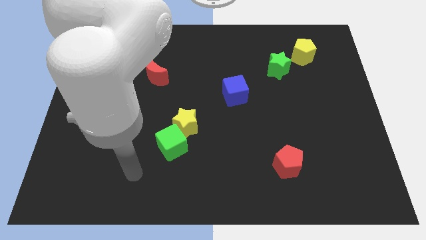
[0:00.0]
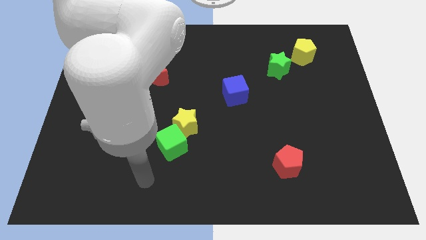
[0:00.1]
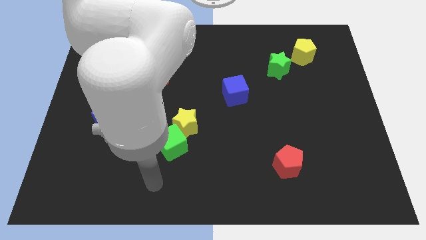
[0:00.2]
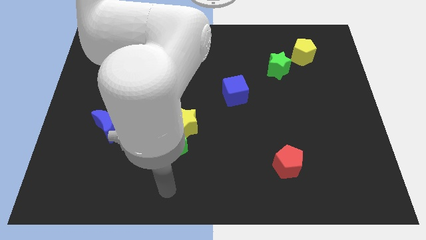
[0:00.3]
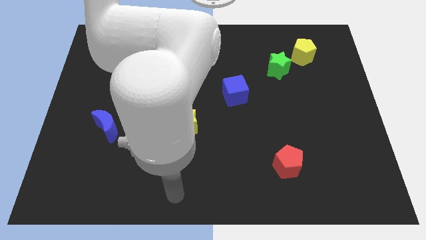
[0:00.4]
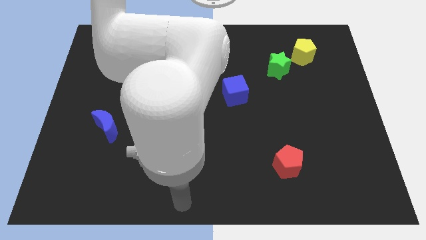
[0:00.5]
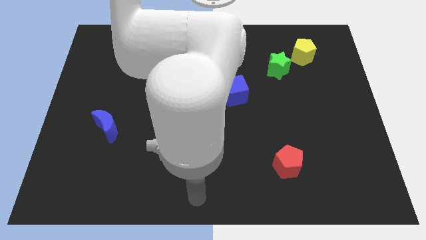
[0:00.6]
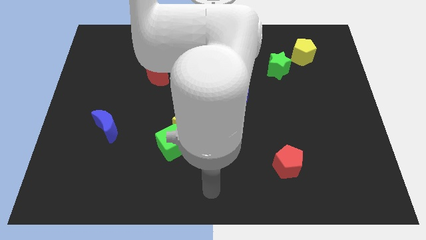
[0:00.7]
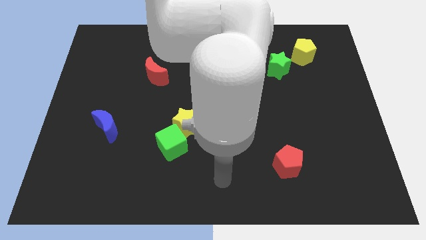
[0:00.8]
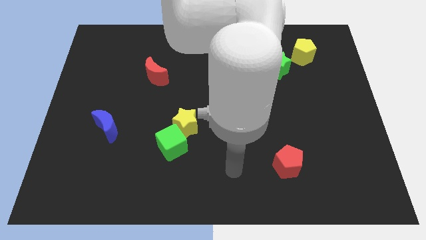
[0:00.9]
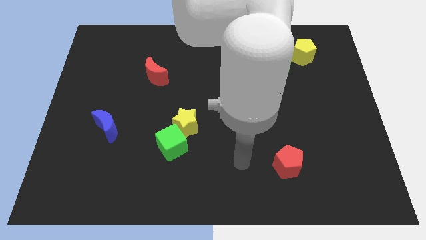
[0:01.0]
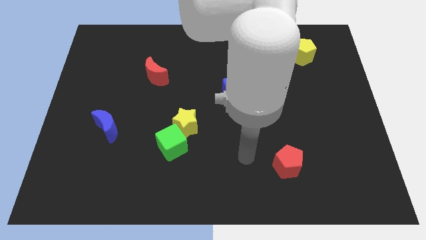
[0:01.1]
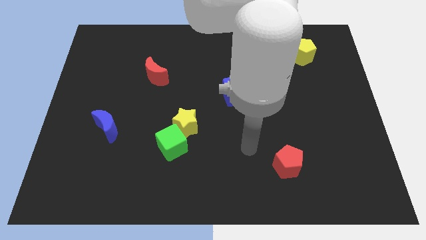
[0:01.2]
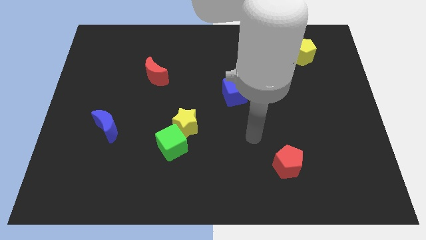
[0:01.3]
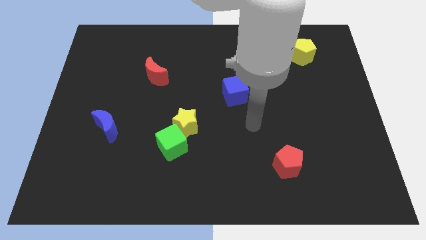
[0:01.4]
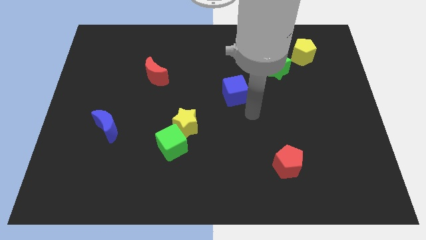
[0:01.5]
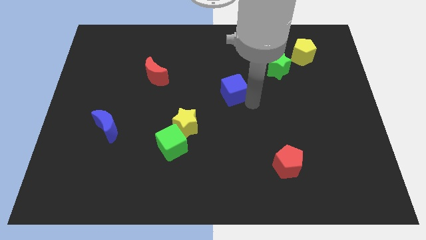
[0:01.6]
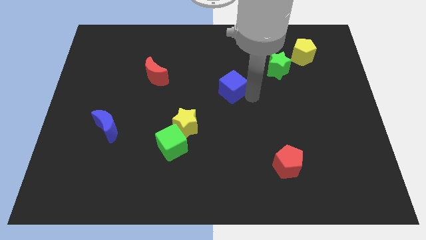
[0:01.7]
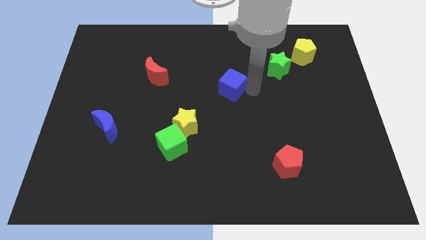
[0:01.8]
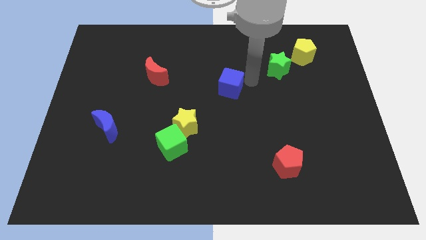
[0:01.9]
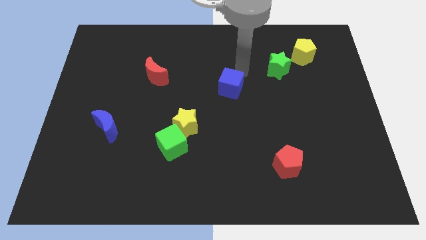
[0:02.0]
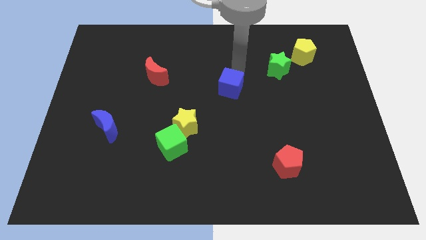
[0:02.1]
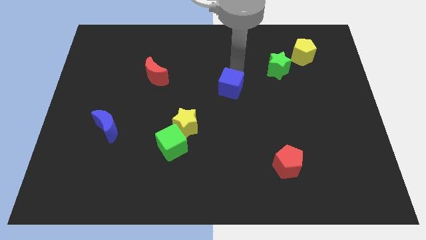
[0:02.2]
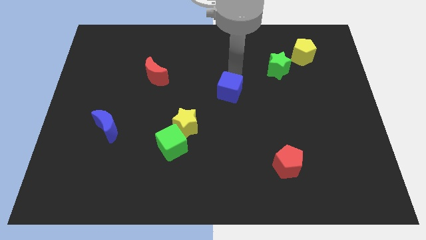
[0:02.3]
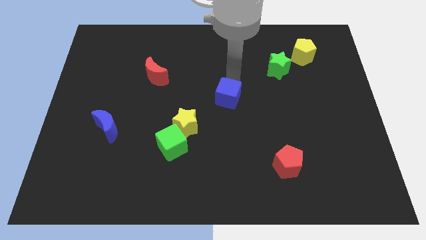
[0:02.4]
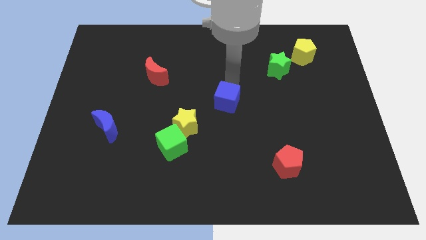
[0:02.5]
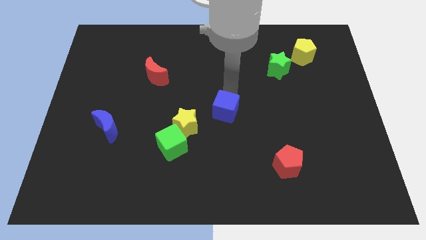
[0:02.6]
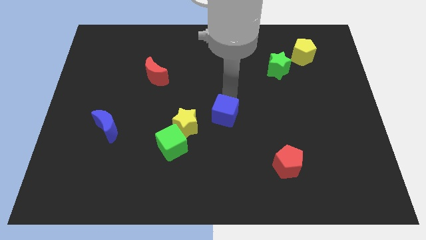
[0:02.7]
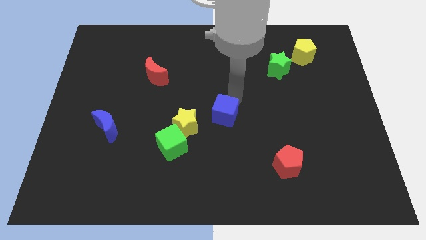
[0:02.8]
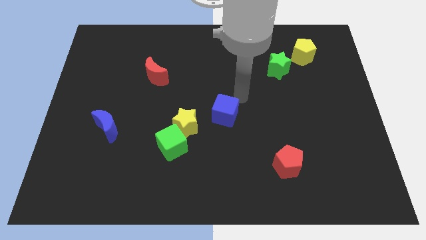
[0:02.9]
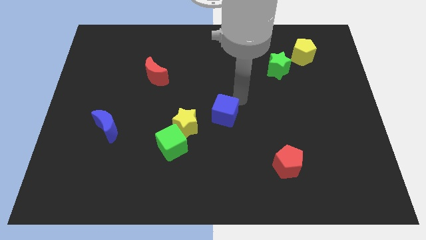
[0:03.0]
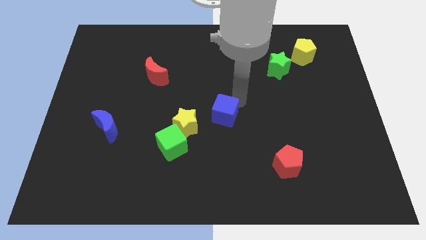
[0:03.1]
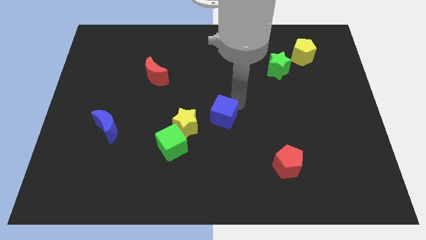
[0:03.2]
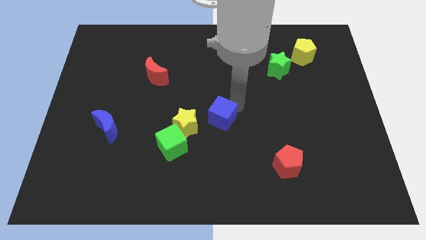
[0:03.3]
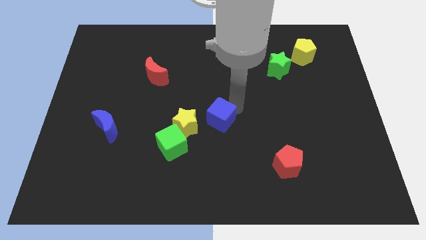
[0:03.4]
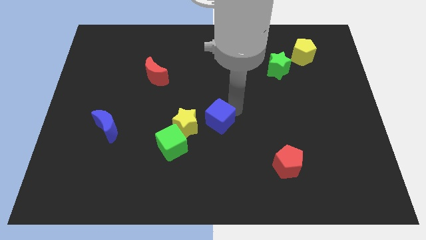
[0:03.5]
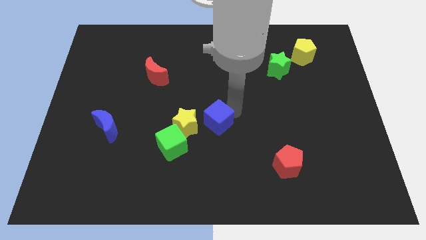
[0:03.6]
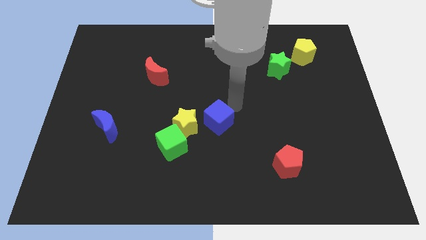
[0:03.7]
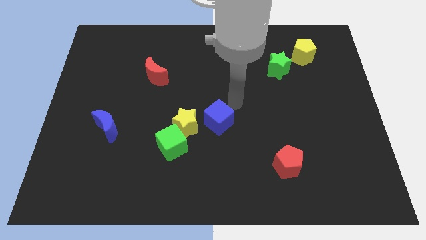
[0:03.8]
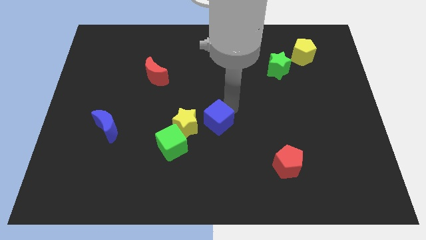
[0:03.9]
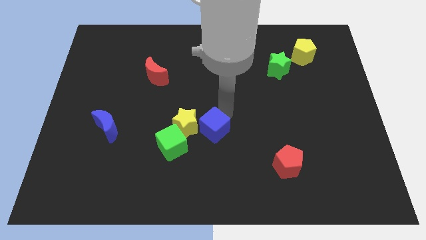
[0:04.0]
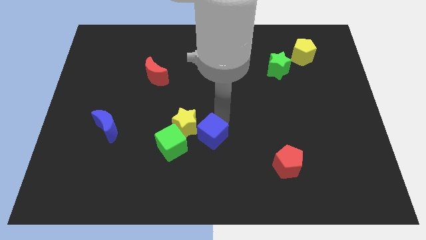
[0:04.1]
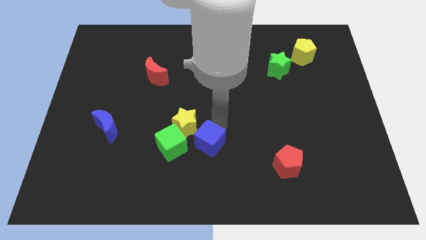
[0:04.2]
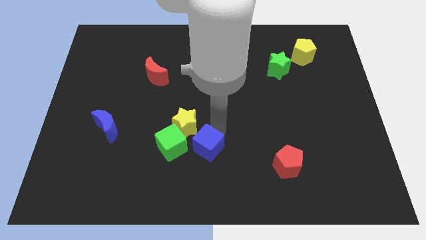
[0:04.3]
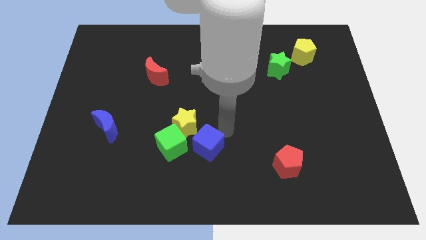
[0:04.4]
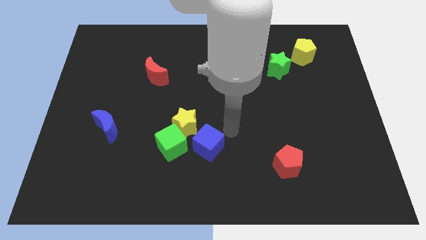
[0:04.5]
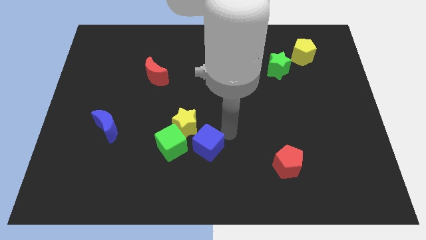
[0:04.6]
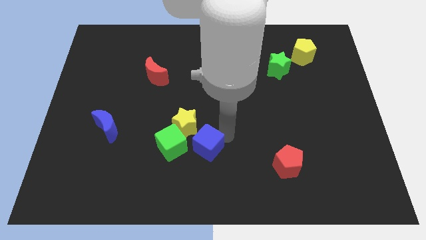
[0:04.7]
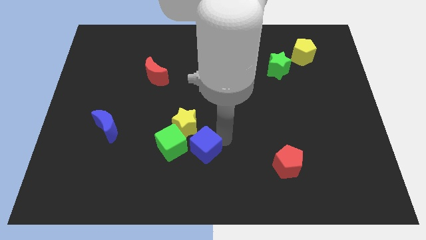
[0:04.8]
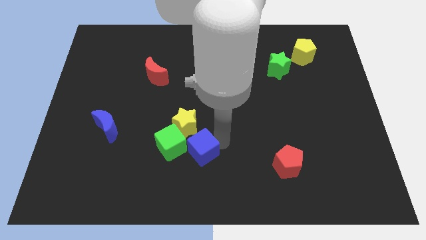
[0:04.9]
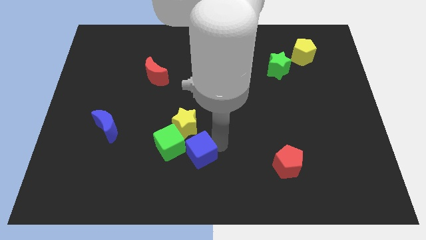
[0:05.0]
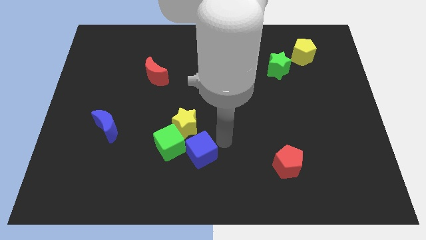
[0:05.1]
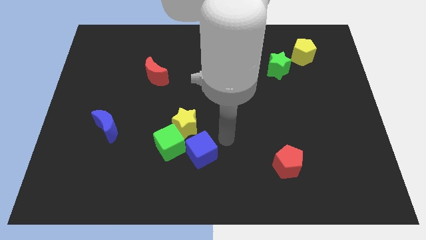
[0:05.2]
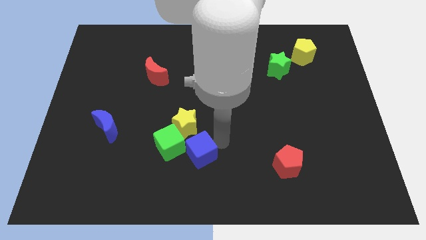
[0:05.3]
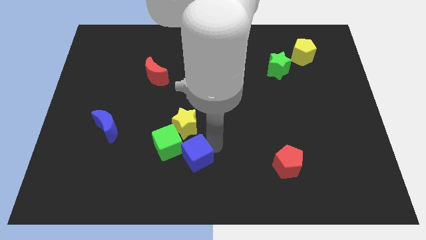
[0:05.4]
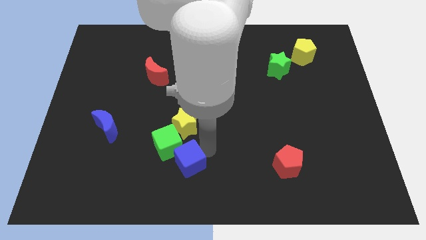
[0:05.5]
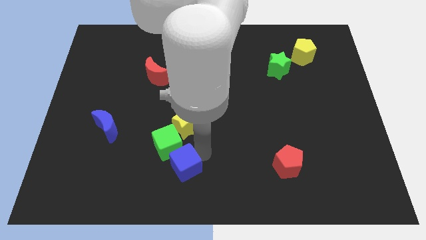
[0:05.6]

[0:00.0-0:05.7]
push the blue cube down and left diagonally

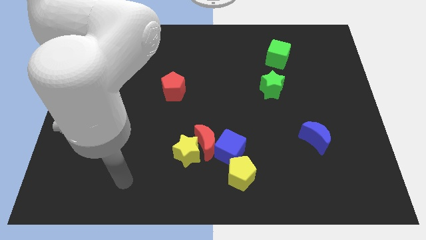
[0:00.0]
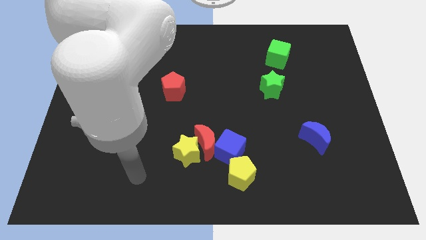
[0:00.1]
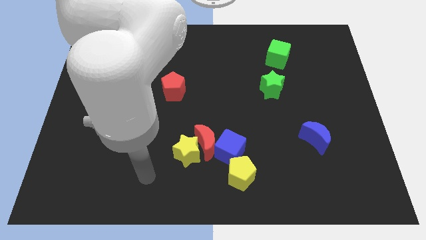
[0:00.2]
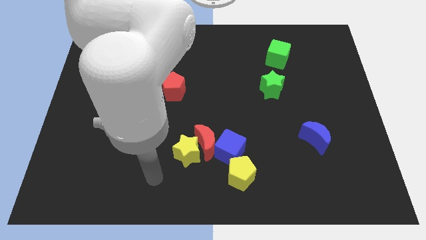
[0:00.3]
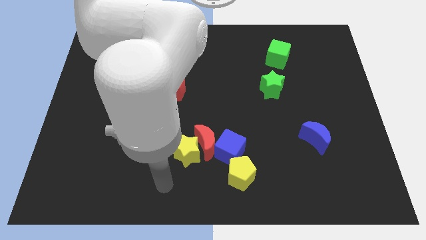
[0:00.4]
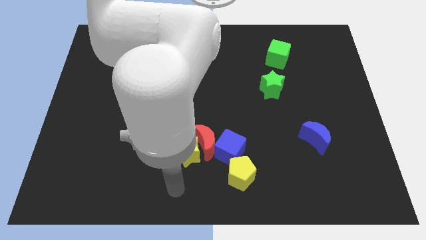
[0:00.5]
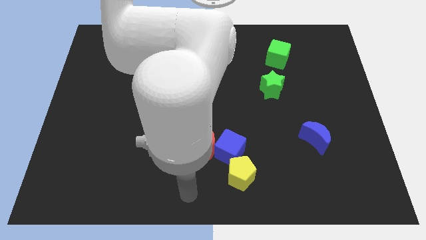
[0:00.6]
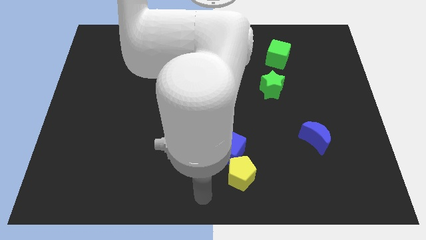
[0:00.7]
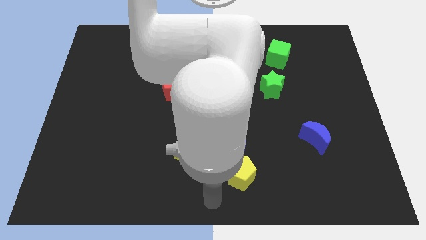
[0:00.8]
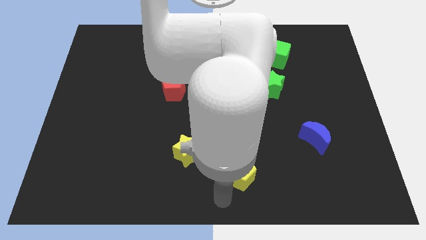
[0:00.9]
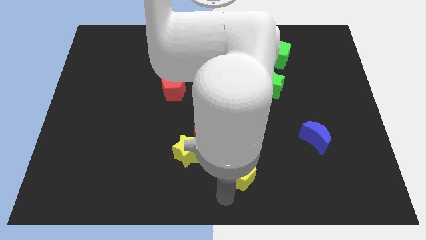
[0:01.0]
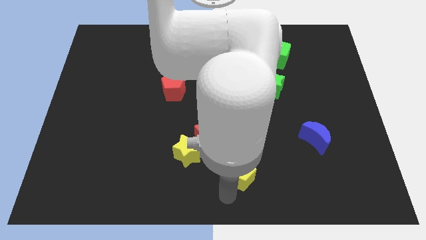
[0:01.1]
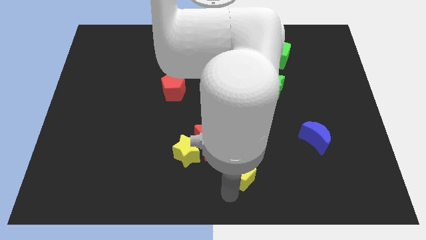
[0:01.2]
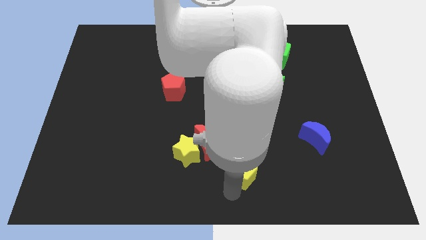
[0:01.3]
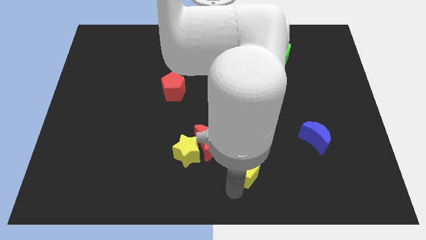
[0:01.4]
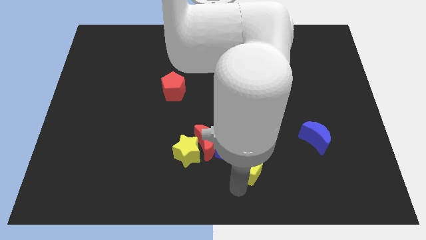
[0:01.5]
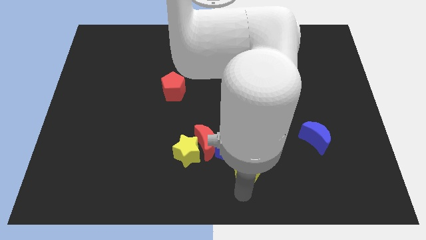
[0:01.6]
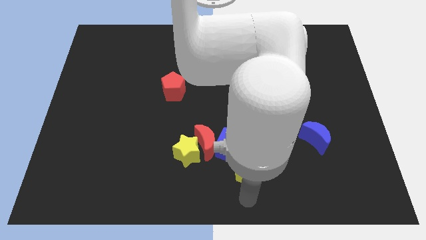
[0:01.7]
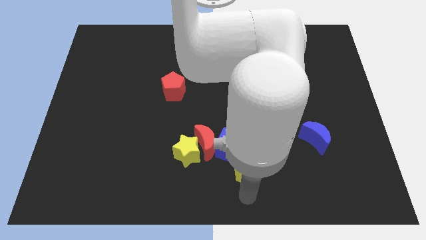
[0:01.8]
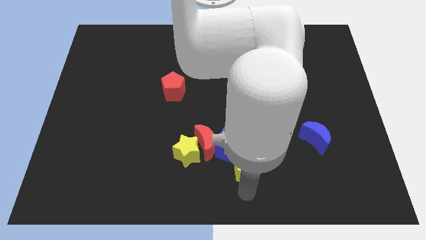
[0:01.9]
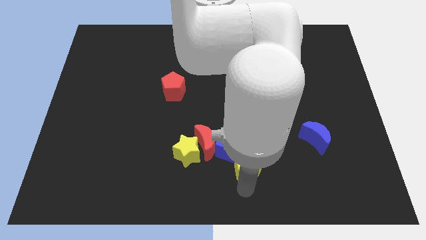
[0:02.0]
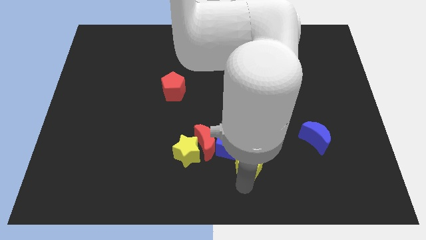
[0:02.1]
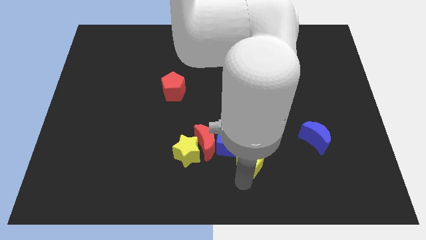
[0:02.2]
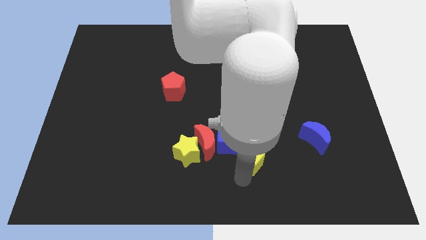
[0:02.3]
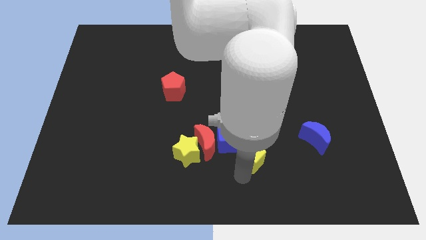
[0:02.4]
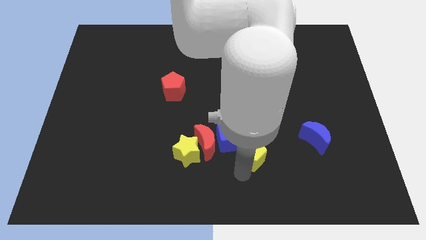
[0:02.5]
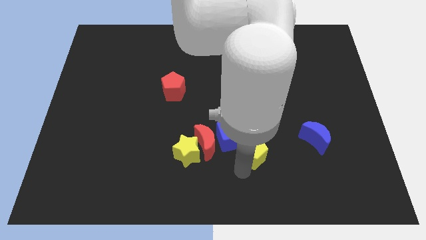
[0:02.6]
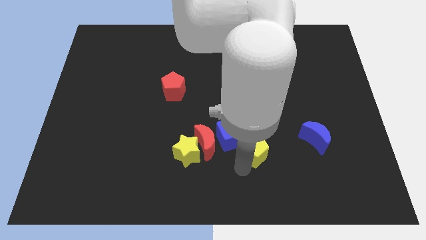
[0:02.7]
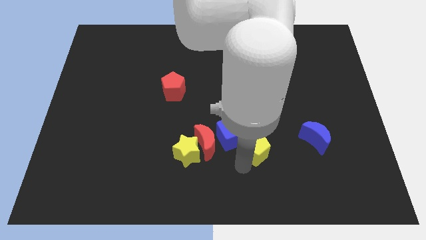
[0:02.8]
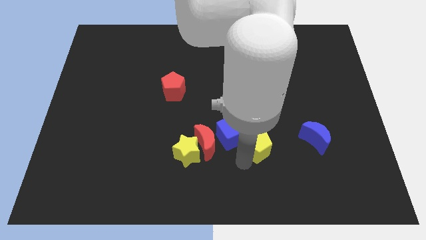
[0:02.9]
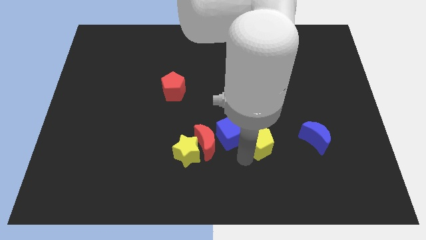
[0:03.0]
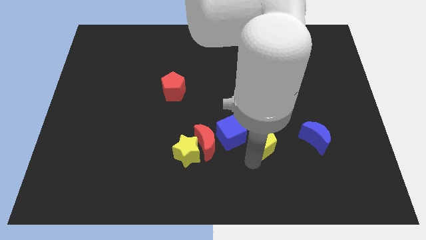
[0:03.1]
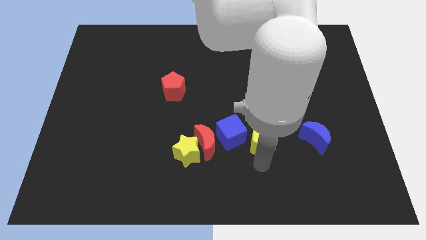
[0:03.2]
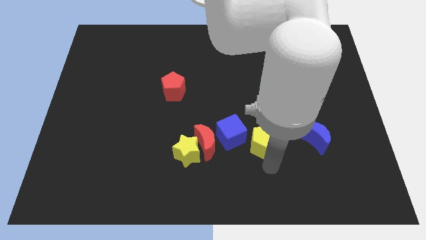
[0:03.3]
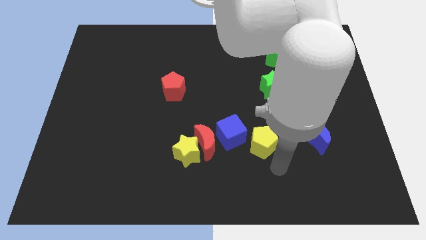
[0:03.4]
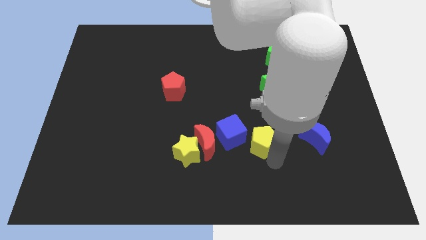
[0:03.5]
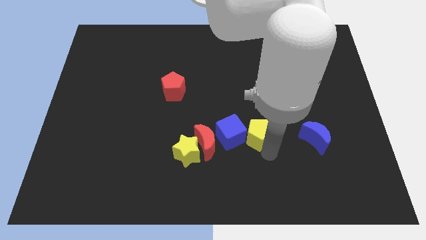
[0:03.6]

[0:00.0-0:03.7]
slightly move the yellow pentagon up
